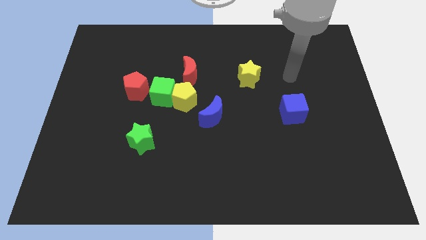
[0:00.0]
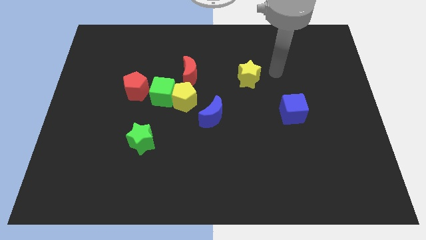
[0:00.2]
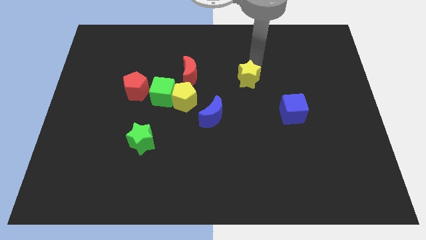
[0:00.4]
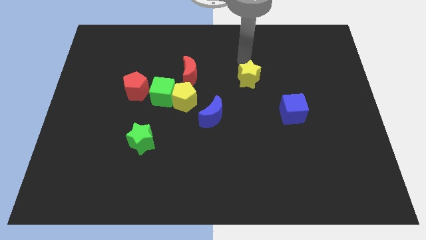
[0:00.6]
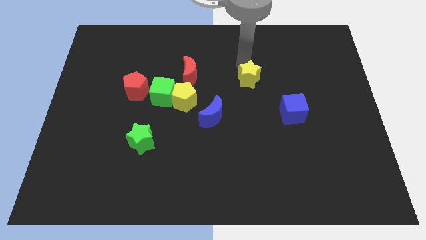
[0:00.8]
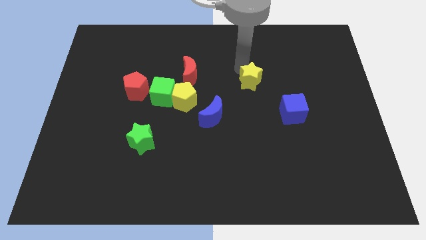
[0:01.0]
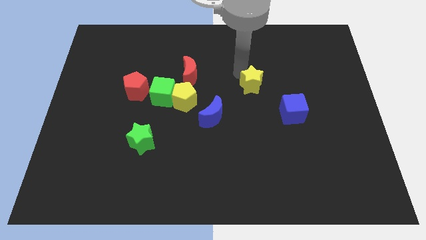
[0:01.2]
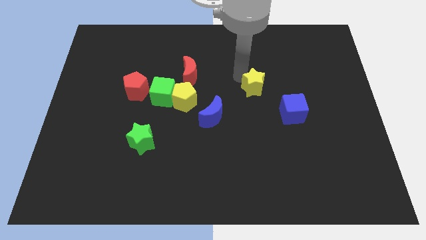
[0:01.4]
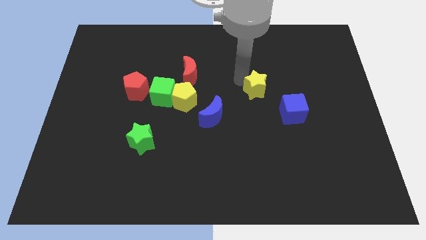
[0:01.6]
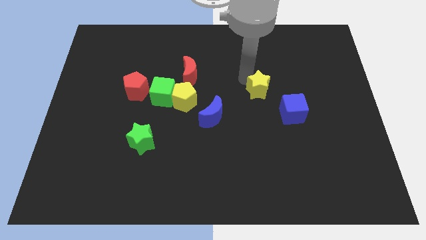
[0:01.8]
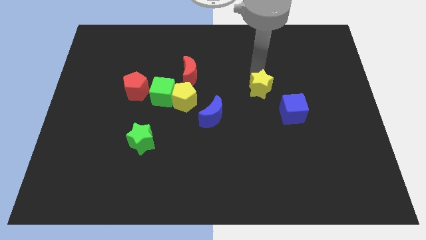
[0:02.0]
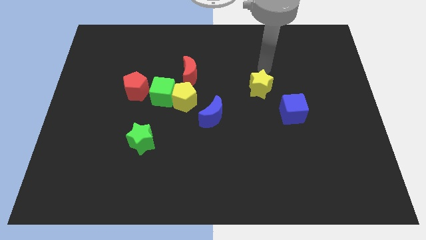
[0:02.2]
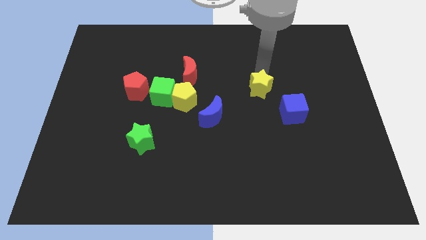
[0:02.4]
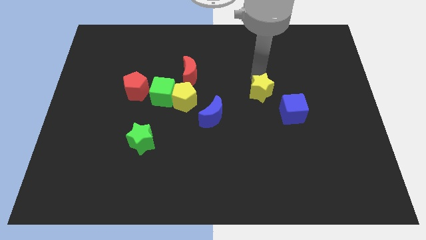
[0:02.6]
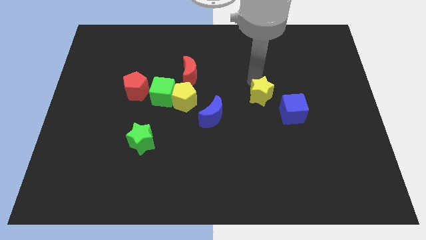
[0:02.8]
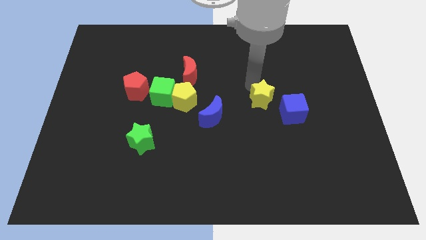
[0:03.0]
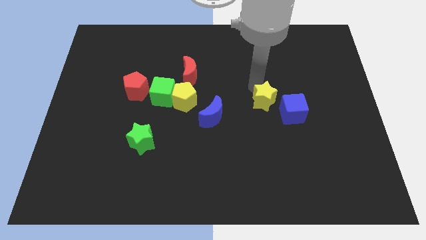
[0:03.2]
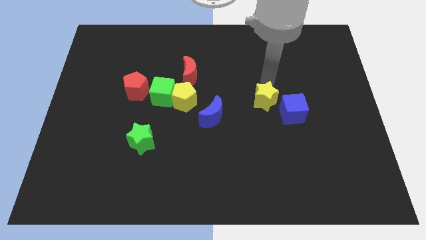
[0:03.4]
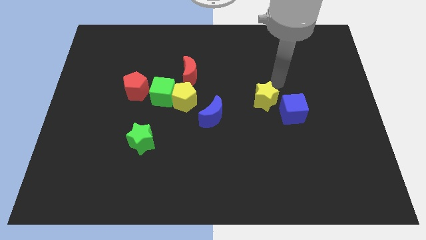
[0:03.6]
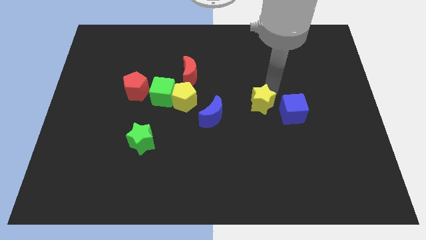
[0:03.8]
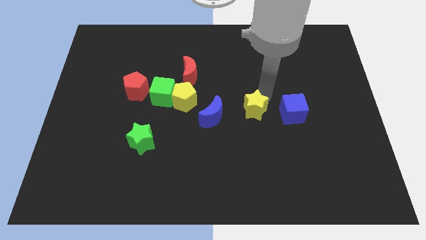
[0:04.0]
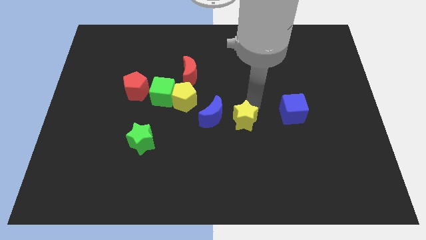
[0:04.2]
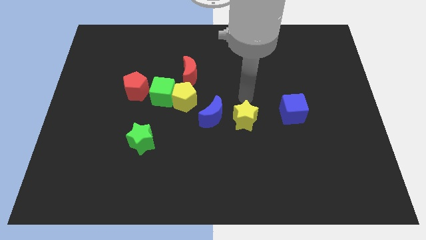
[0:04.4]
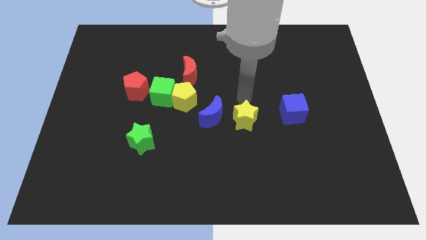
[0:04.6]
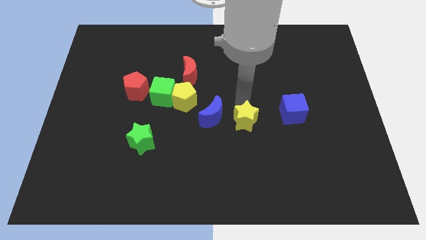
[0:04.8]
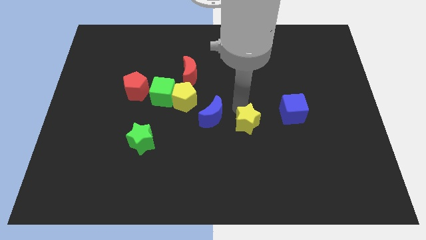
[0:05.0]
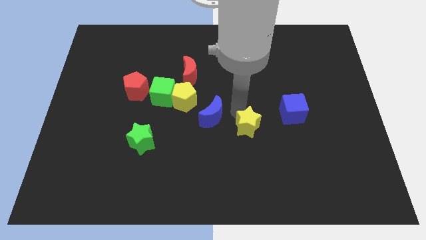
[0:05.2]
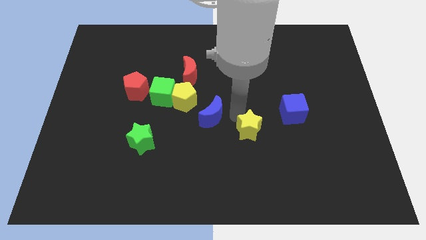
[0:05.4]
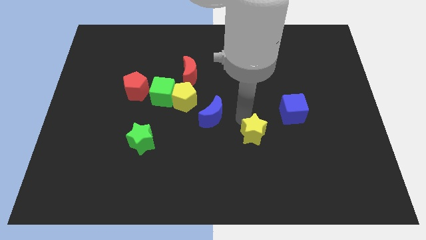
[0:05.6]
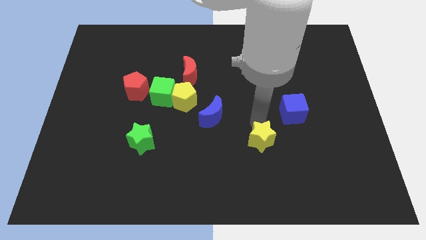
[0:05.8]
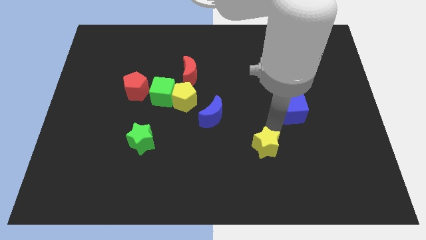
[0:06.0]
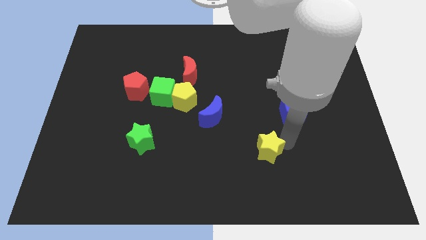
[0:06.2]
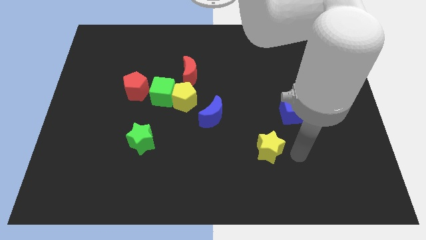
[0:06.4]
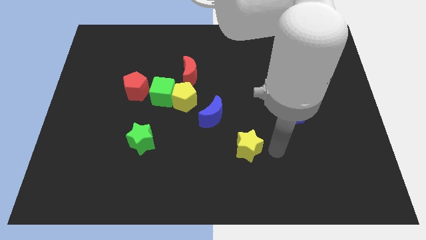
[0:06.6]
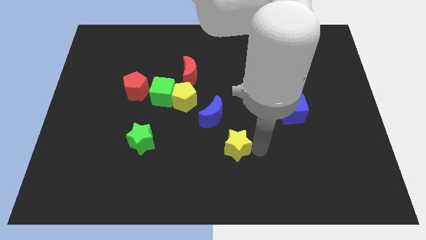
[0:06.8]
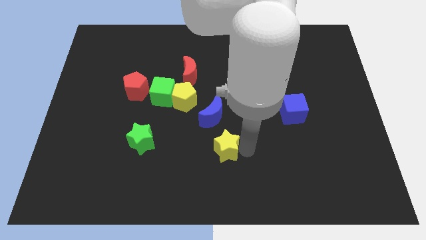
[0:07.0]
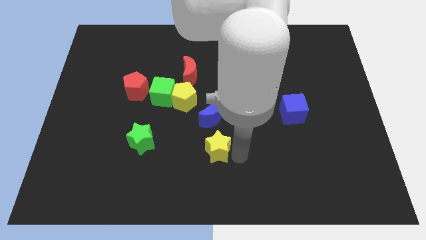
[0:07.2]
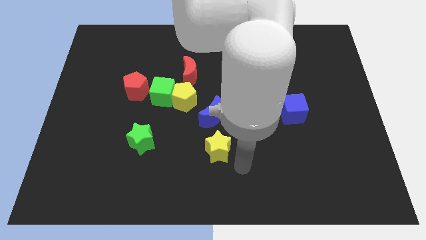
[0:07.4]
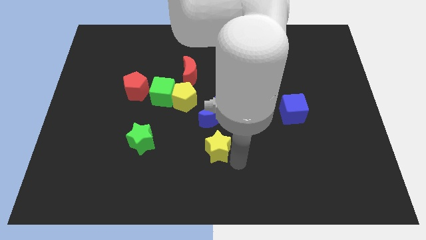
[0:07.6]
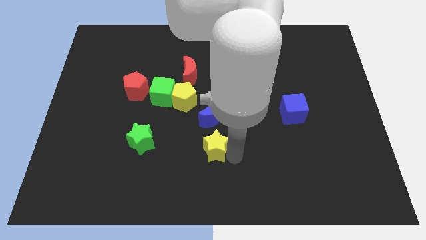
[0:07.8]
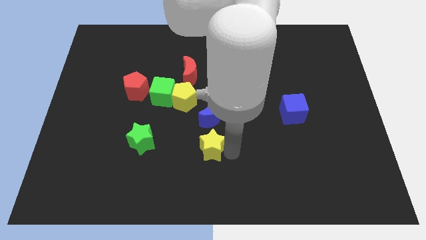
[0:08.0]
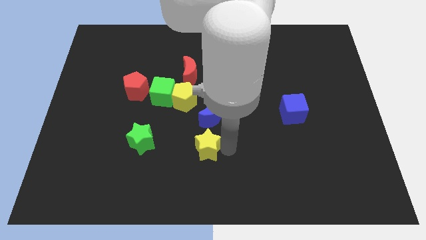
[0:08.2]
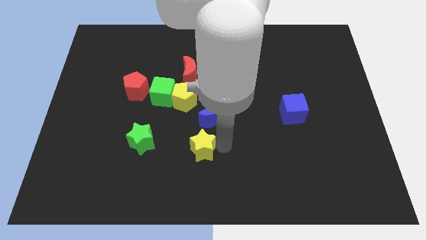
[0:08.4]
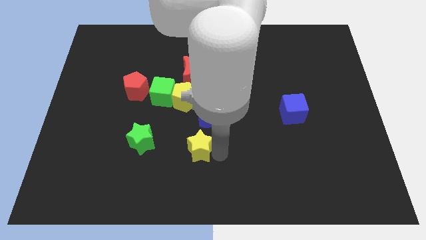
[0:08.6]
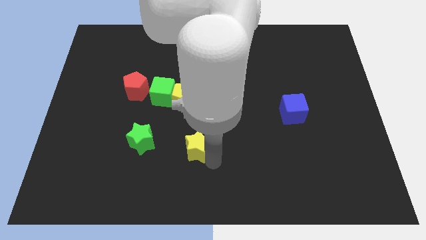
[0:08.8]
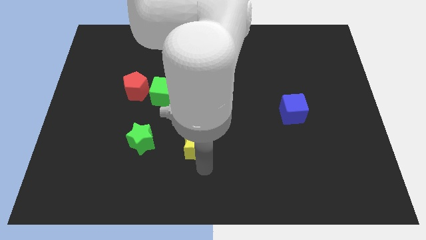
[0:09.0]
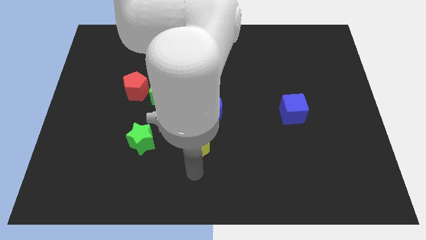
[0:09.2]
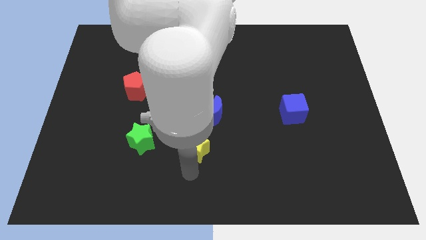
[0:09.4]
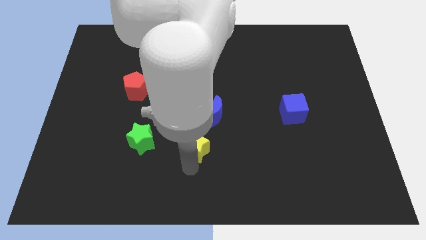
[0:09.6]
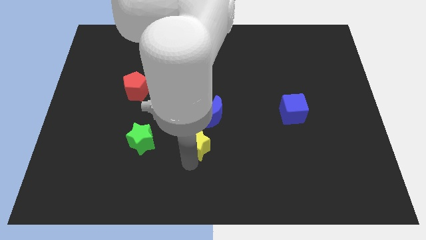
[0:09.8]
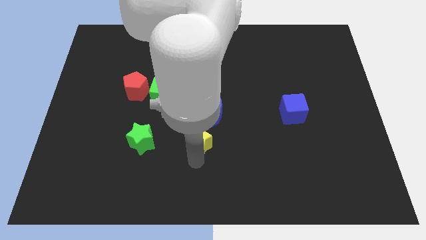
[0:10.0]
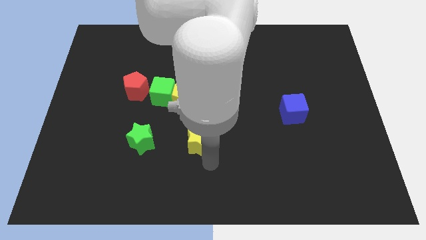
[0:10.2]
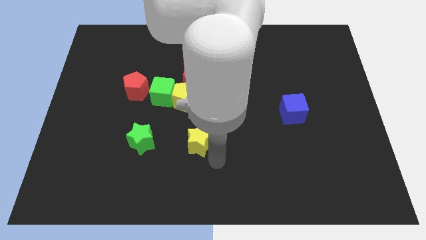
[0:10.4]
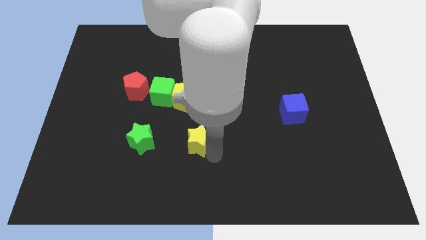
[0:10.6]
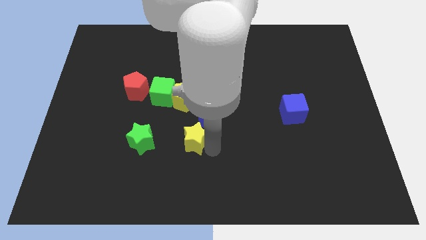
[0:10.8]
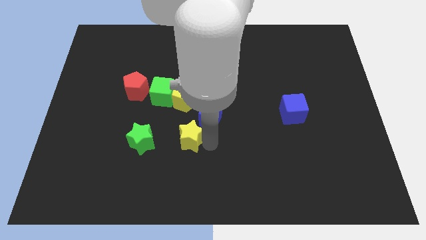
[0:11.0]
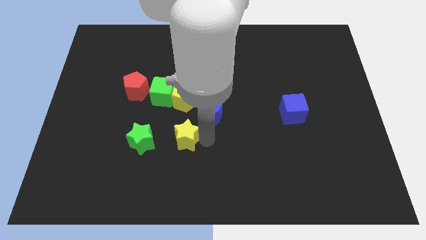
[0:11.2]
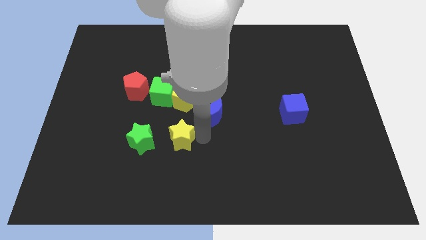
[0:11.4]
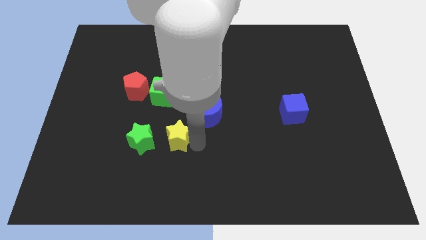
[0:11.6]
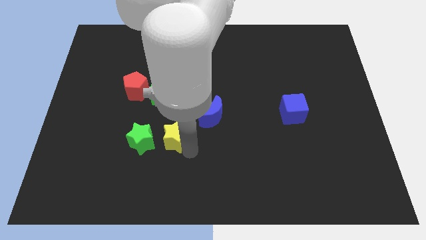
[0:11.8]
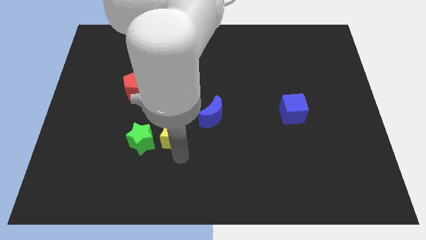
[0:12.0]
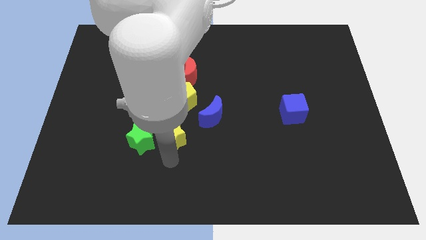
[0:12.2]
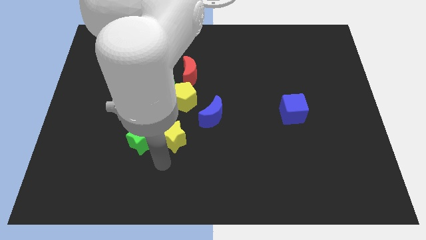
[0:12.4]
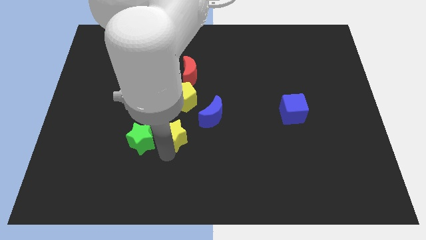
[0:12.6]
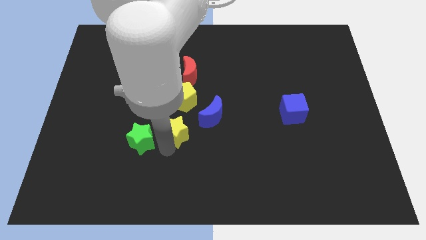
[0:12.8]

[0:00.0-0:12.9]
slide the yellow star left of the blue moon

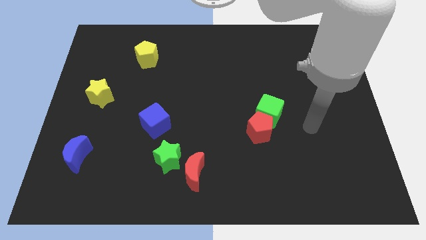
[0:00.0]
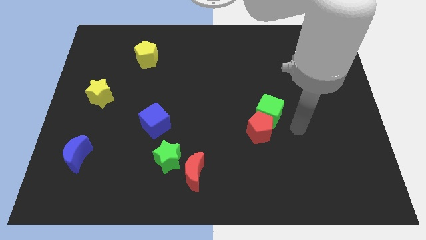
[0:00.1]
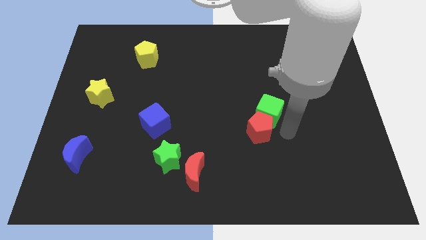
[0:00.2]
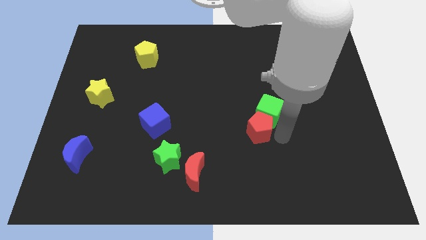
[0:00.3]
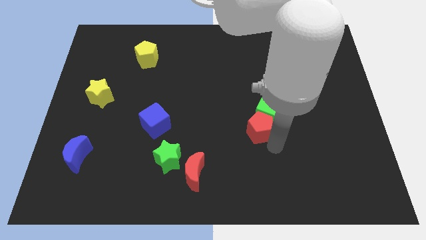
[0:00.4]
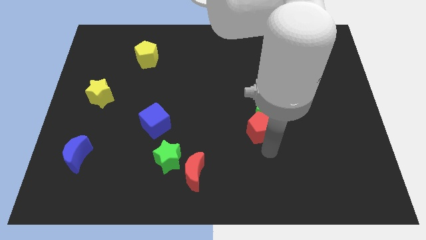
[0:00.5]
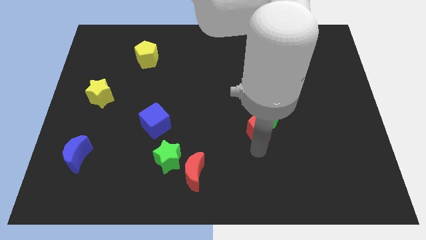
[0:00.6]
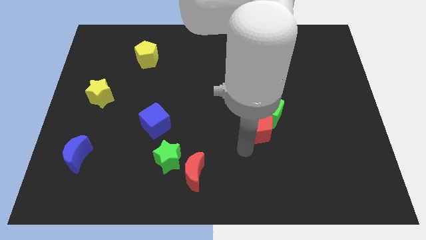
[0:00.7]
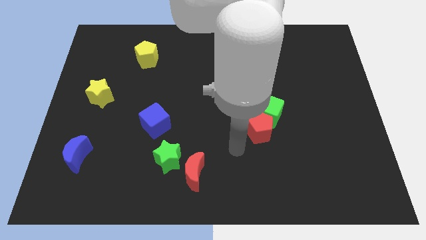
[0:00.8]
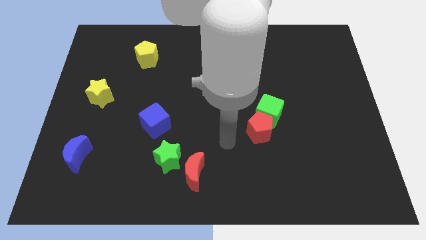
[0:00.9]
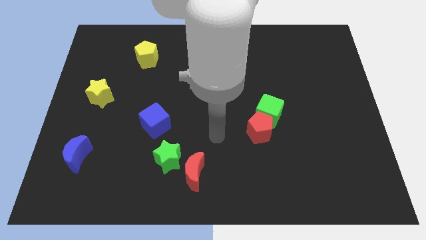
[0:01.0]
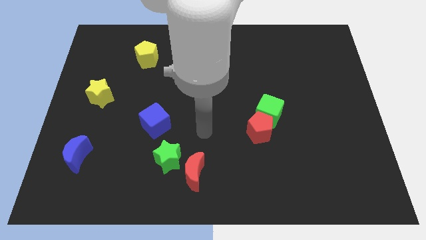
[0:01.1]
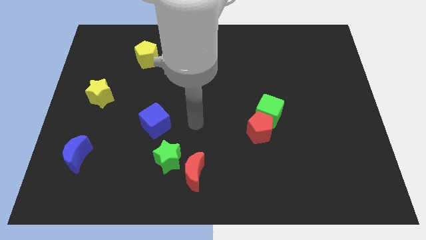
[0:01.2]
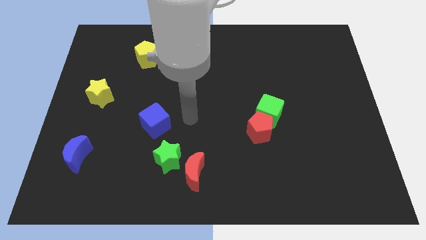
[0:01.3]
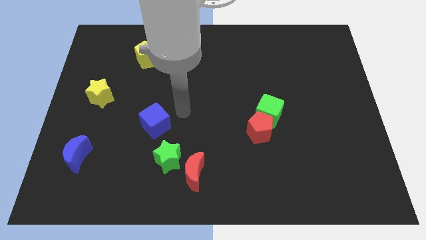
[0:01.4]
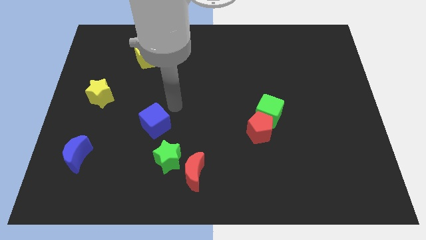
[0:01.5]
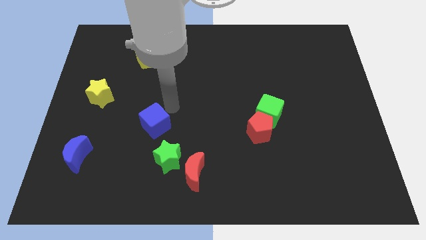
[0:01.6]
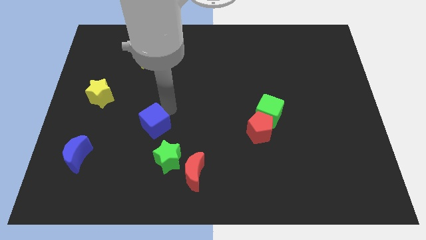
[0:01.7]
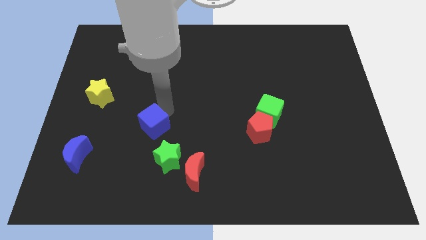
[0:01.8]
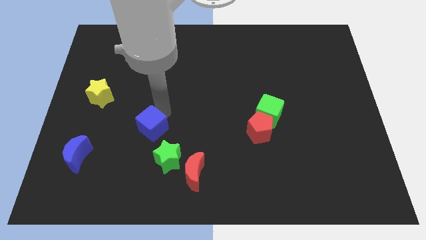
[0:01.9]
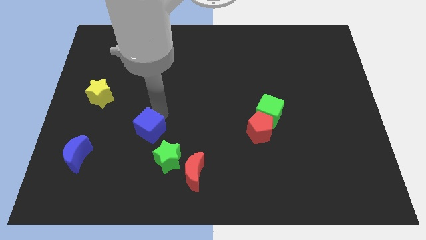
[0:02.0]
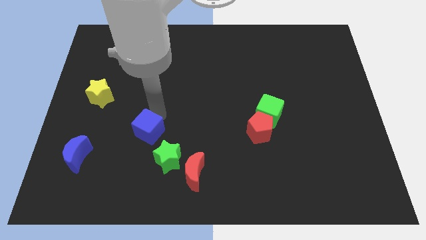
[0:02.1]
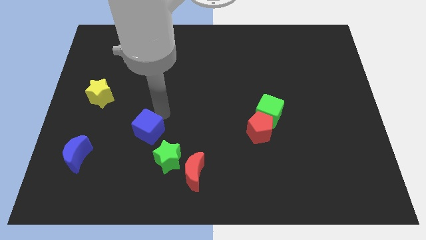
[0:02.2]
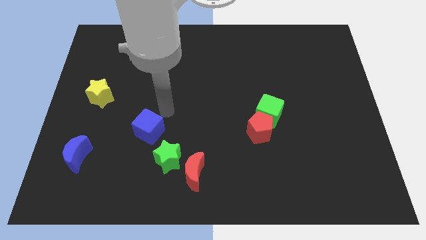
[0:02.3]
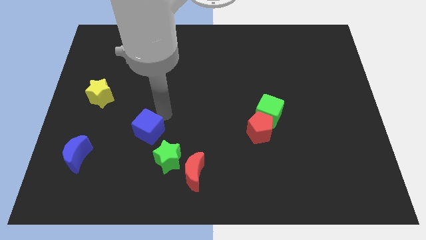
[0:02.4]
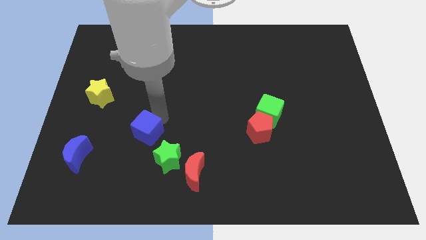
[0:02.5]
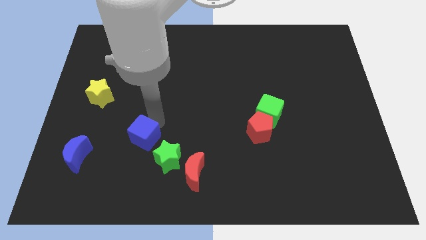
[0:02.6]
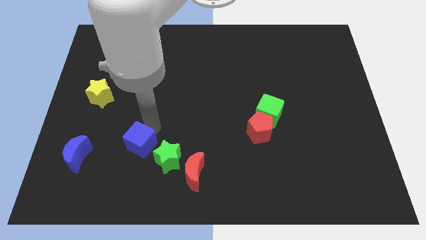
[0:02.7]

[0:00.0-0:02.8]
move the blue cube just right of the blue moon
